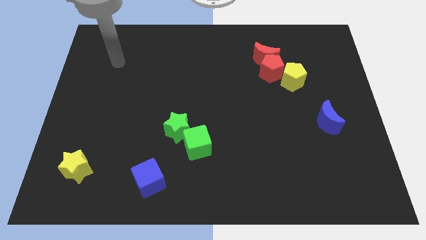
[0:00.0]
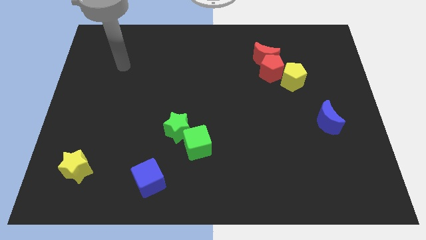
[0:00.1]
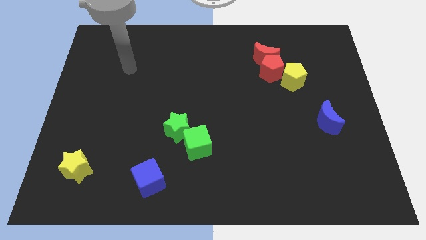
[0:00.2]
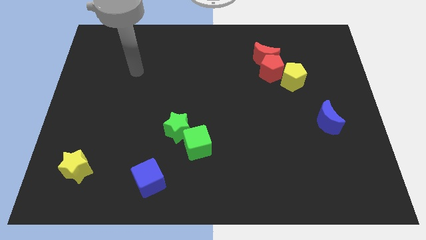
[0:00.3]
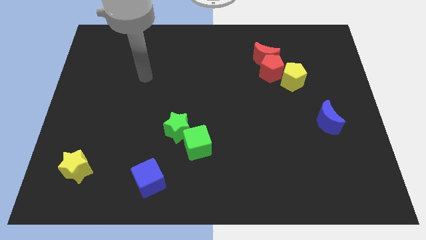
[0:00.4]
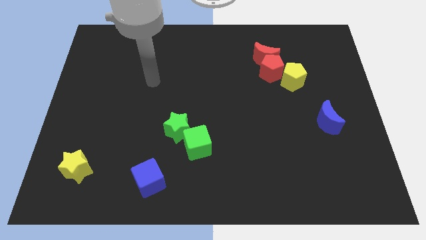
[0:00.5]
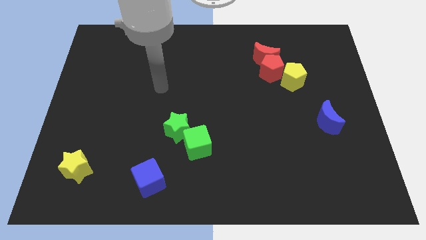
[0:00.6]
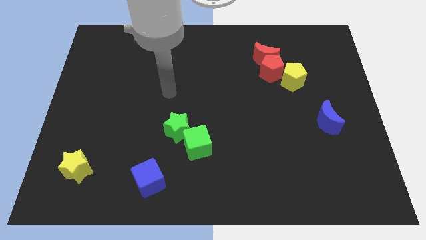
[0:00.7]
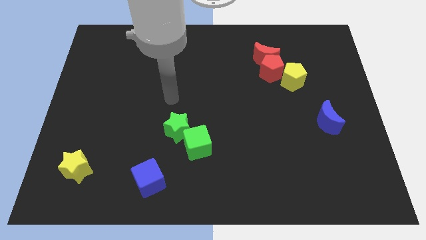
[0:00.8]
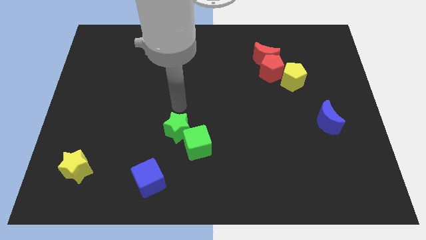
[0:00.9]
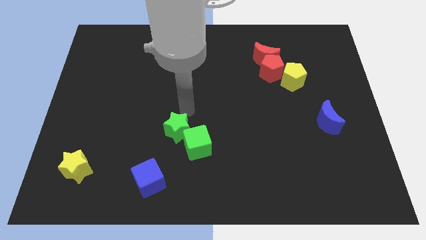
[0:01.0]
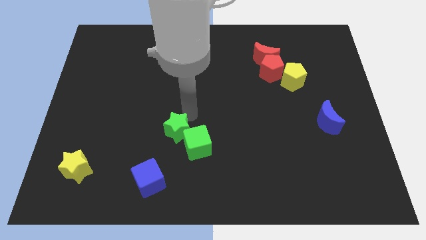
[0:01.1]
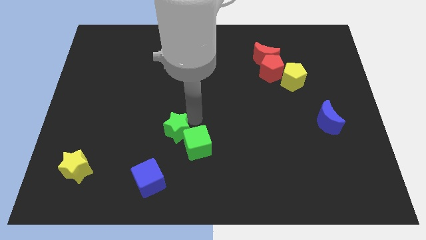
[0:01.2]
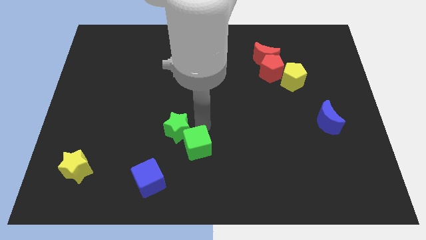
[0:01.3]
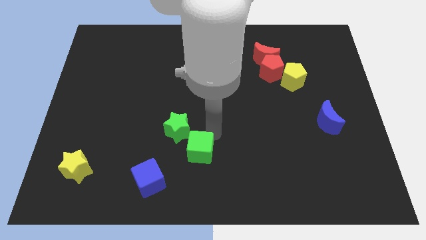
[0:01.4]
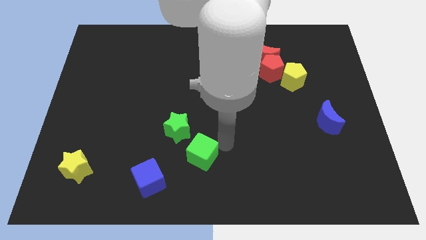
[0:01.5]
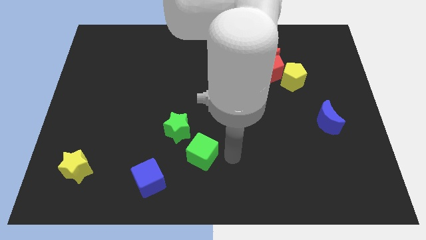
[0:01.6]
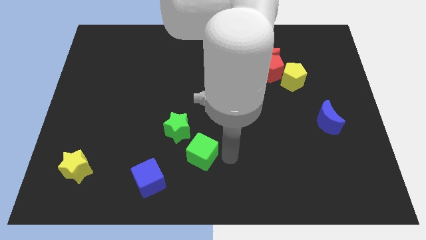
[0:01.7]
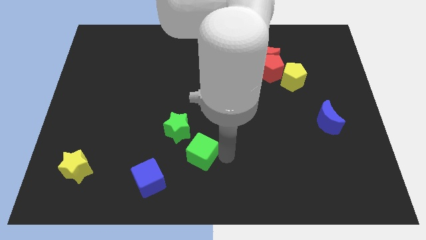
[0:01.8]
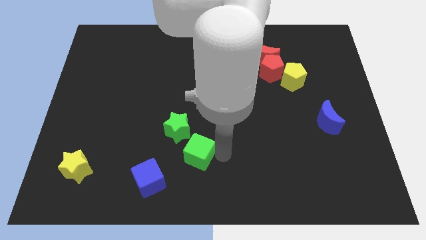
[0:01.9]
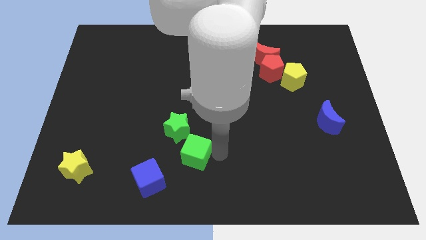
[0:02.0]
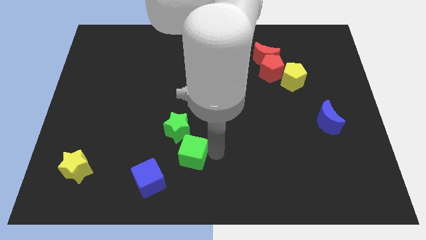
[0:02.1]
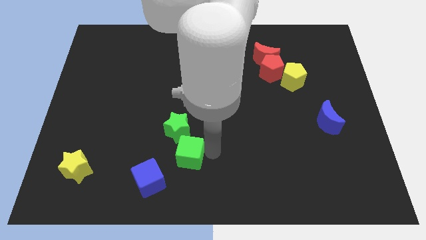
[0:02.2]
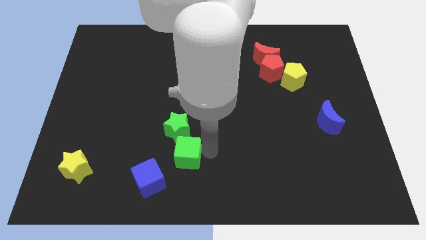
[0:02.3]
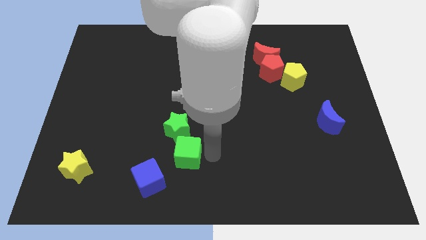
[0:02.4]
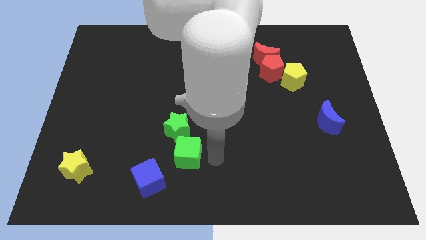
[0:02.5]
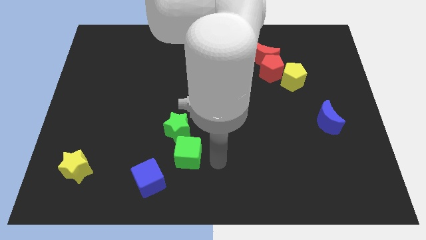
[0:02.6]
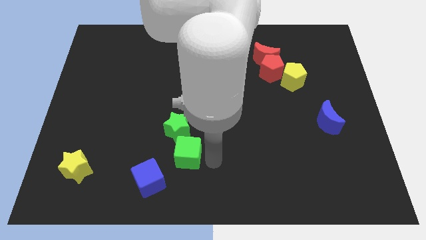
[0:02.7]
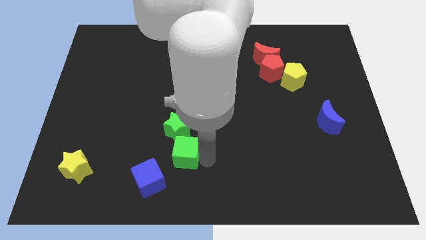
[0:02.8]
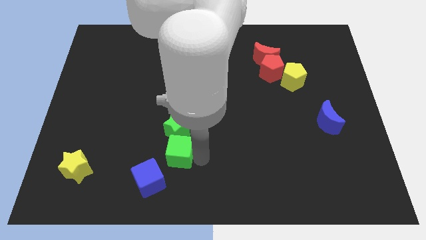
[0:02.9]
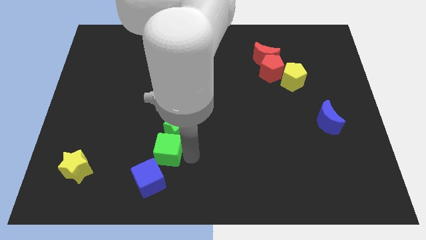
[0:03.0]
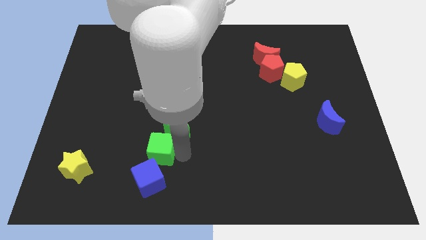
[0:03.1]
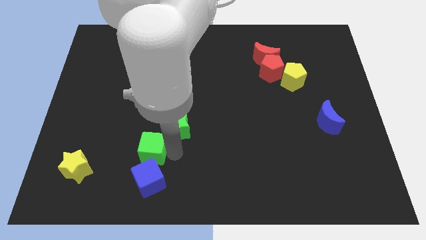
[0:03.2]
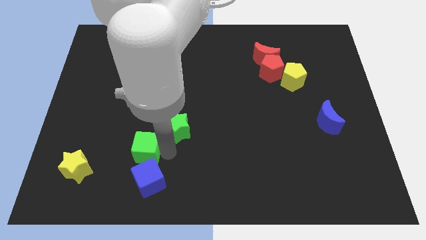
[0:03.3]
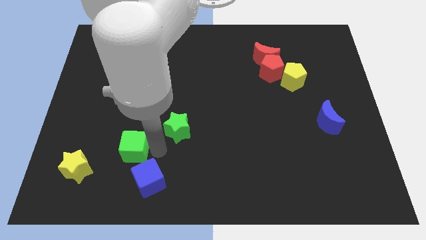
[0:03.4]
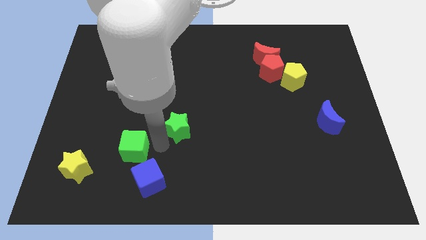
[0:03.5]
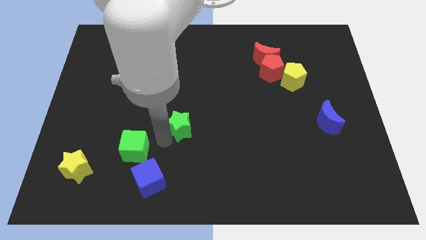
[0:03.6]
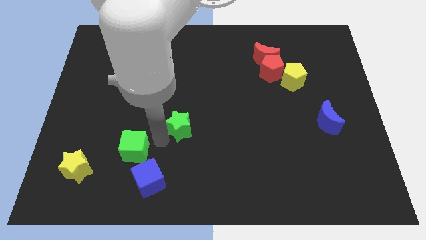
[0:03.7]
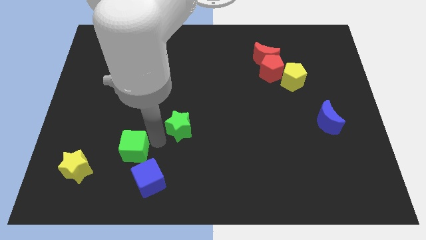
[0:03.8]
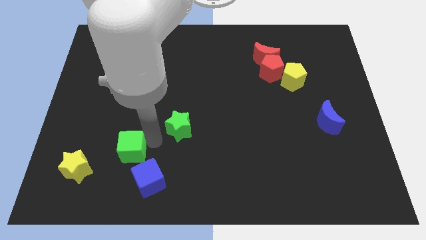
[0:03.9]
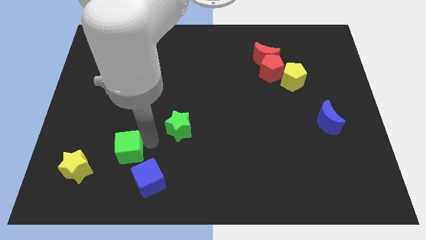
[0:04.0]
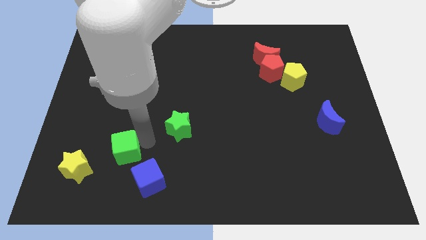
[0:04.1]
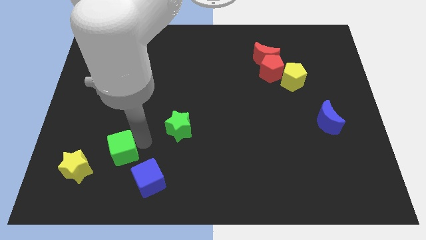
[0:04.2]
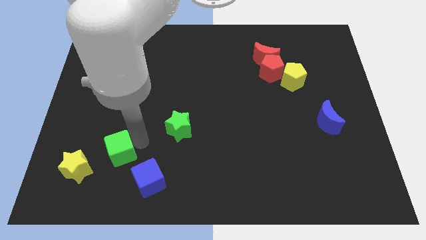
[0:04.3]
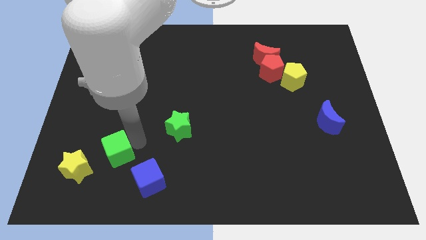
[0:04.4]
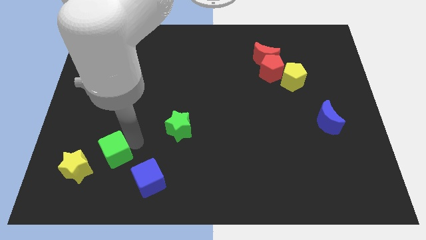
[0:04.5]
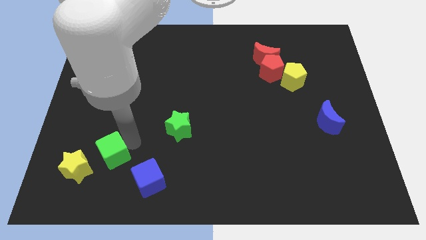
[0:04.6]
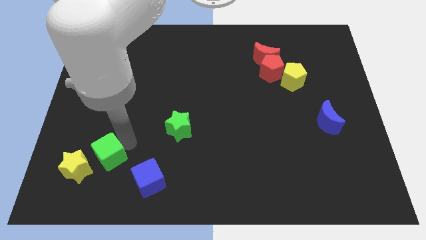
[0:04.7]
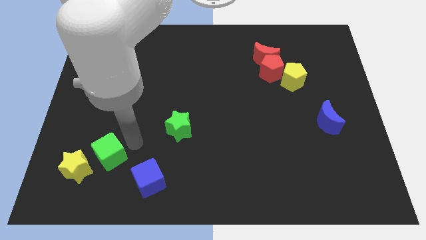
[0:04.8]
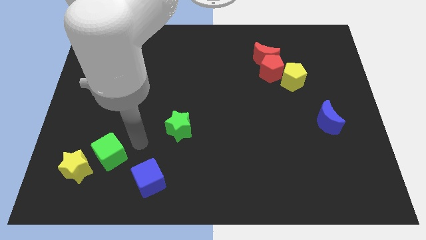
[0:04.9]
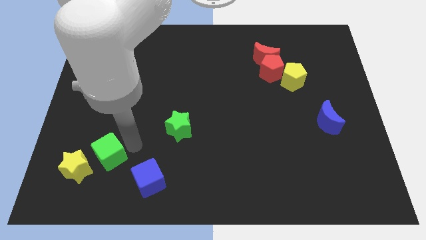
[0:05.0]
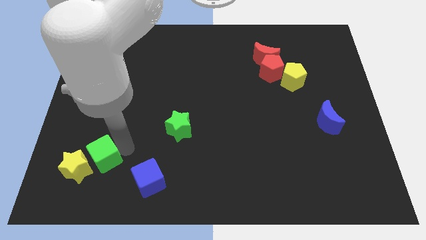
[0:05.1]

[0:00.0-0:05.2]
push the green cube next to the yellow star

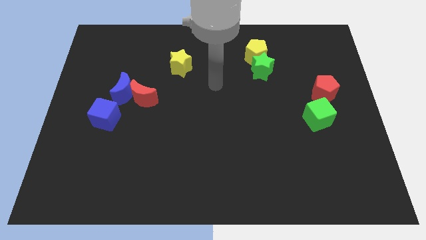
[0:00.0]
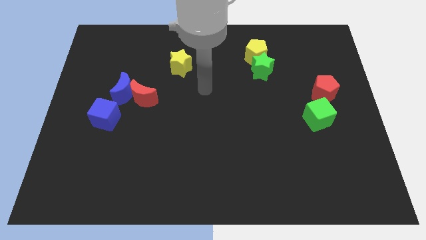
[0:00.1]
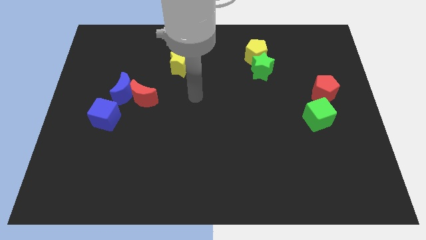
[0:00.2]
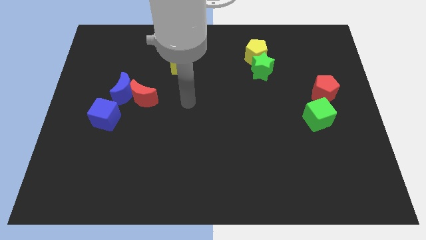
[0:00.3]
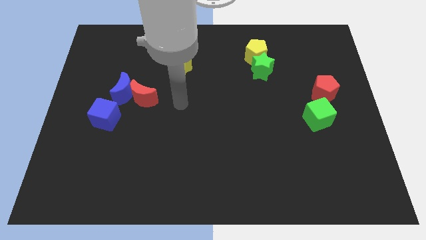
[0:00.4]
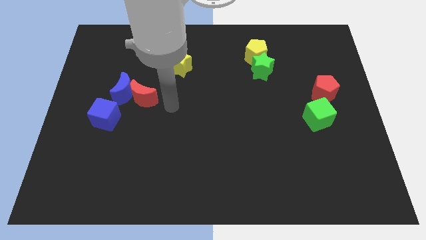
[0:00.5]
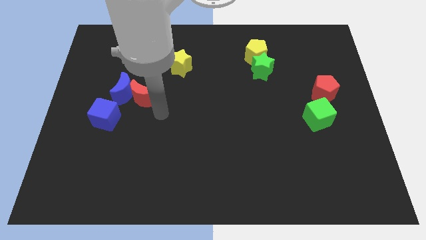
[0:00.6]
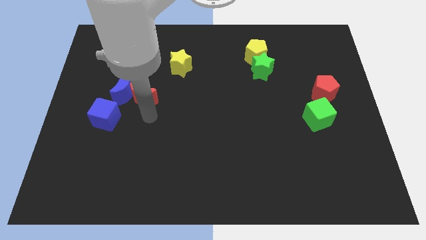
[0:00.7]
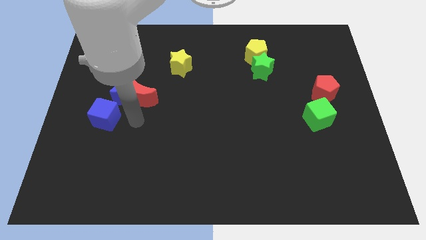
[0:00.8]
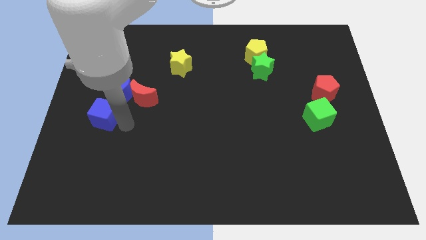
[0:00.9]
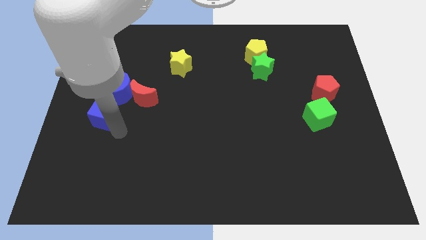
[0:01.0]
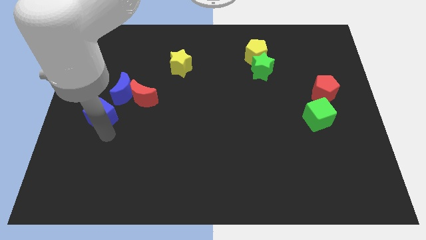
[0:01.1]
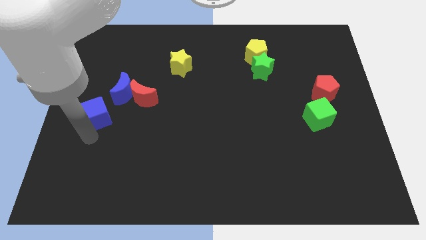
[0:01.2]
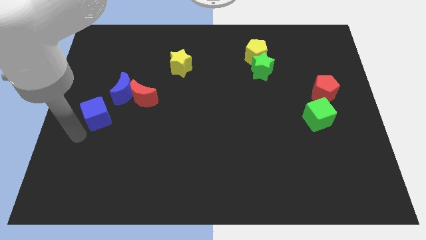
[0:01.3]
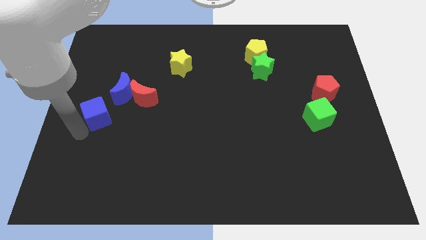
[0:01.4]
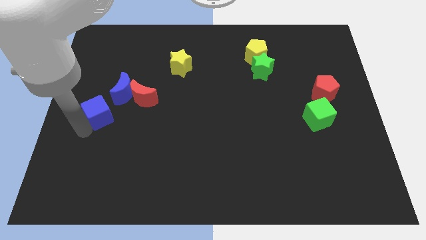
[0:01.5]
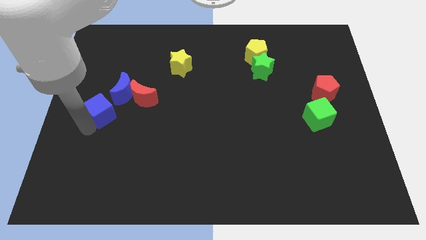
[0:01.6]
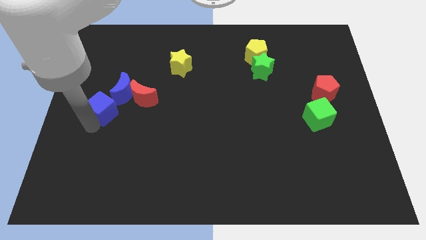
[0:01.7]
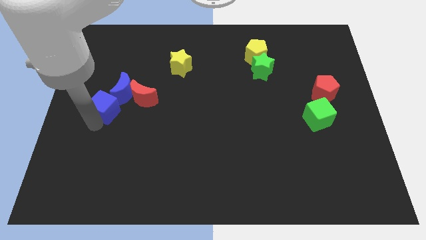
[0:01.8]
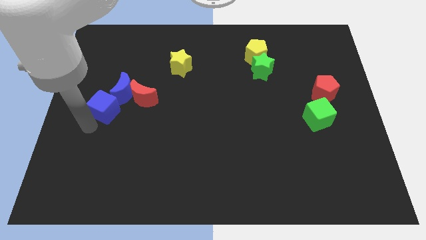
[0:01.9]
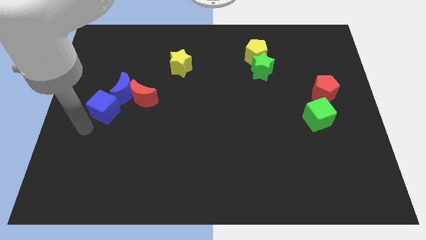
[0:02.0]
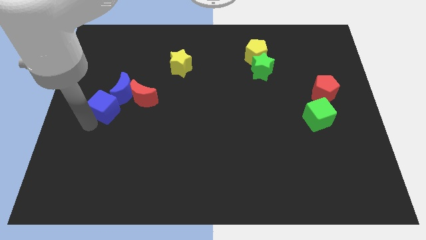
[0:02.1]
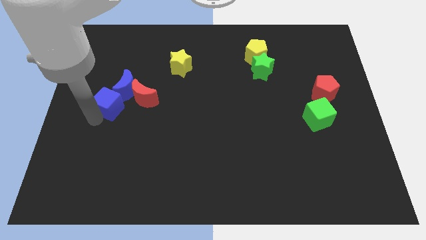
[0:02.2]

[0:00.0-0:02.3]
move the blue cube towards the blue moon
